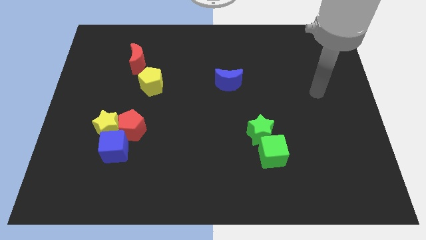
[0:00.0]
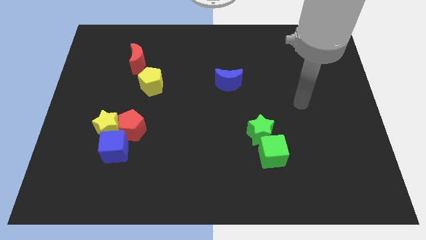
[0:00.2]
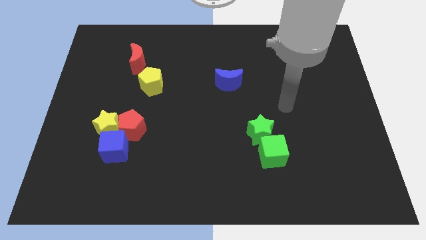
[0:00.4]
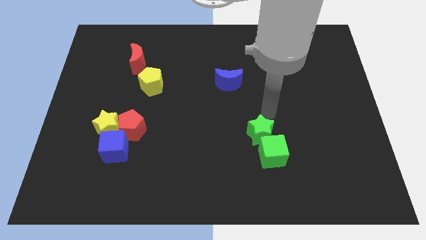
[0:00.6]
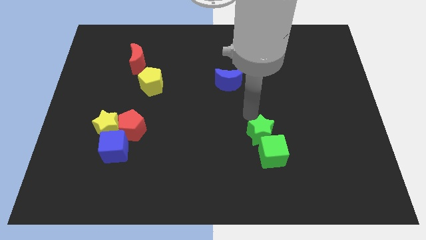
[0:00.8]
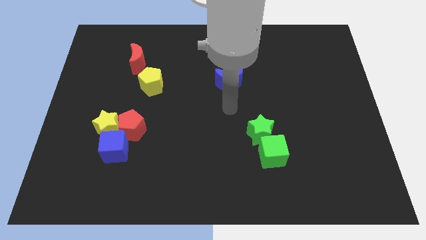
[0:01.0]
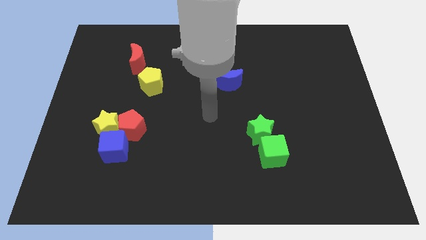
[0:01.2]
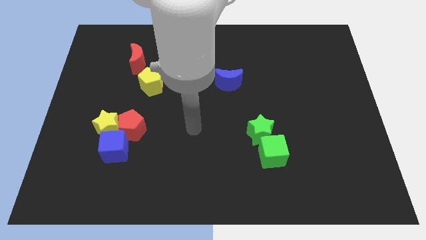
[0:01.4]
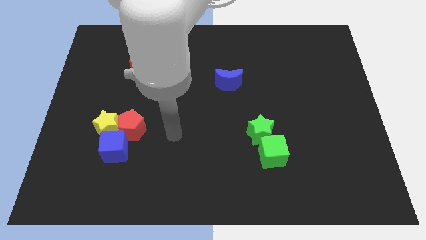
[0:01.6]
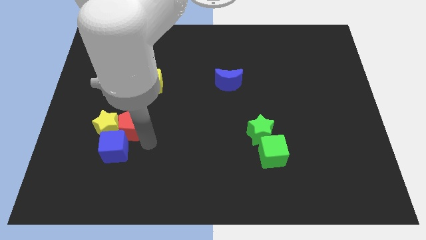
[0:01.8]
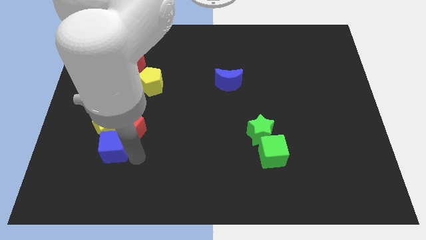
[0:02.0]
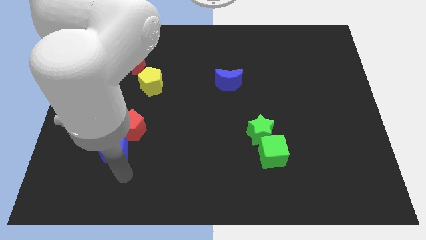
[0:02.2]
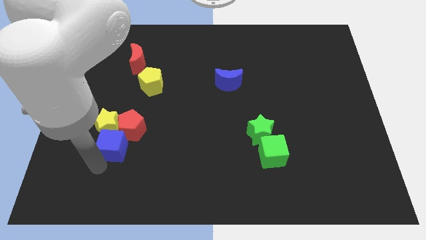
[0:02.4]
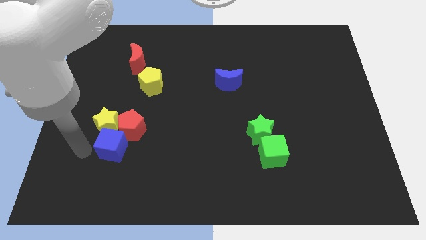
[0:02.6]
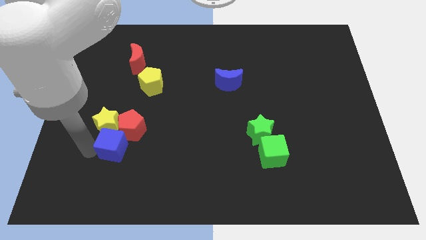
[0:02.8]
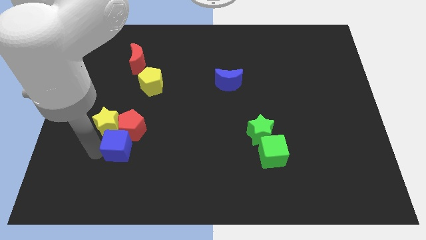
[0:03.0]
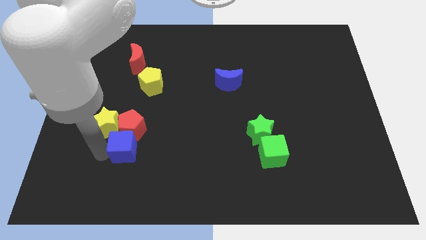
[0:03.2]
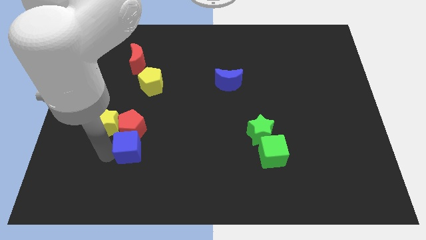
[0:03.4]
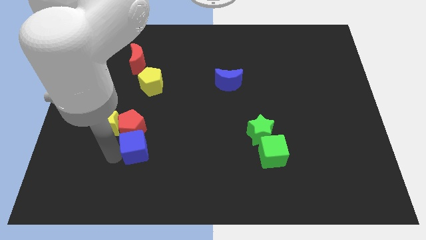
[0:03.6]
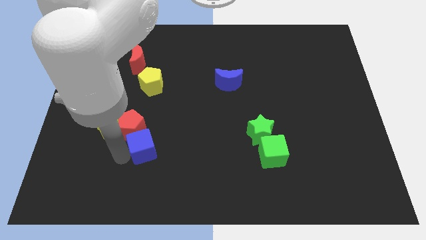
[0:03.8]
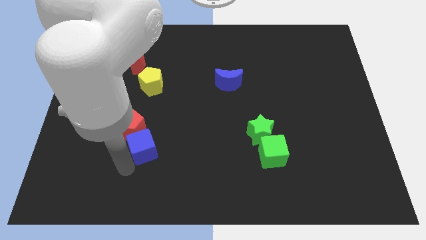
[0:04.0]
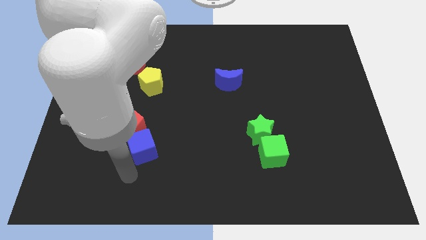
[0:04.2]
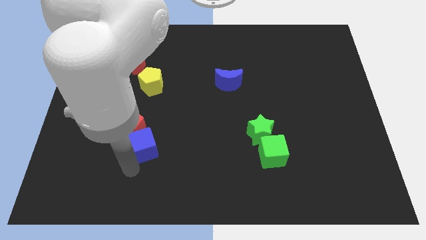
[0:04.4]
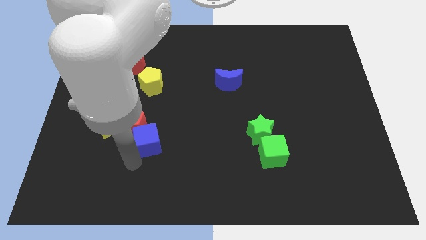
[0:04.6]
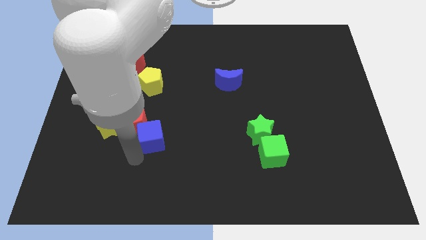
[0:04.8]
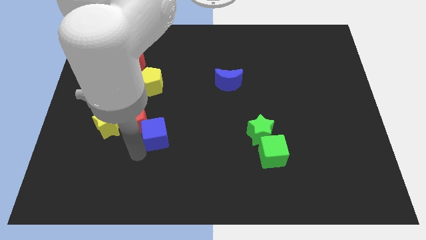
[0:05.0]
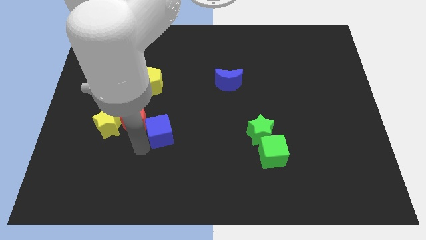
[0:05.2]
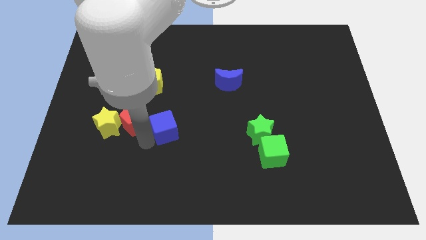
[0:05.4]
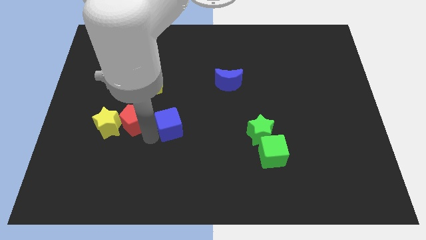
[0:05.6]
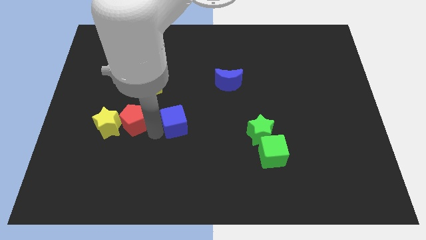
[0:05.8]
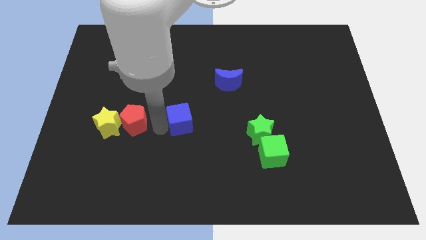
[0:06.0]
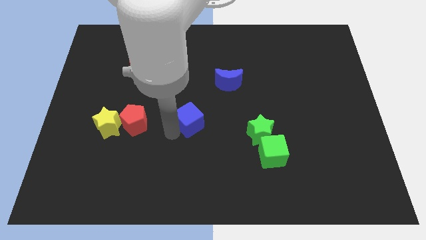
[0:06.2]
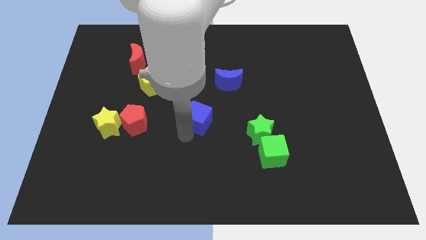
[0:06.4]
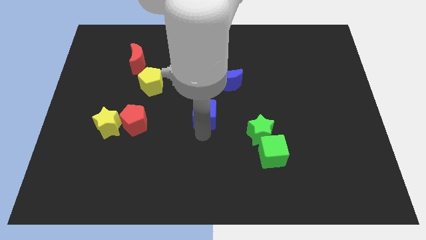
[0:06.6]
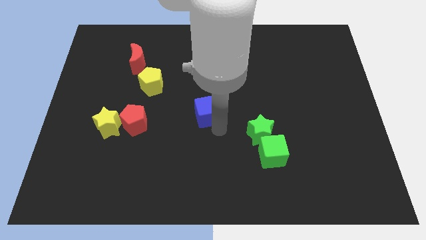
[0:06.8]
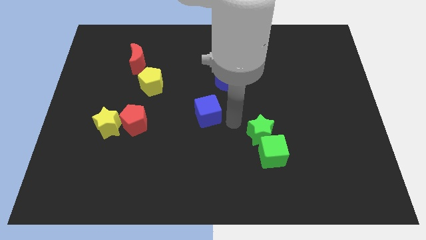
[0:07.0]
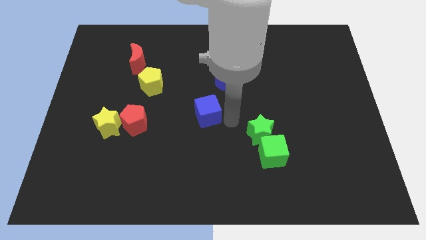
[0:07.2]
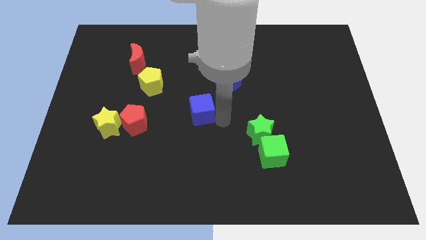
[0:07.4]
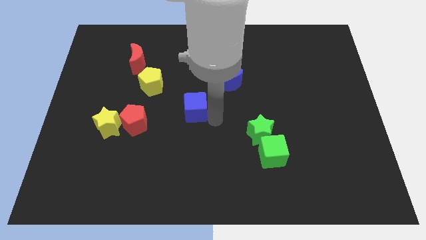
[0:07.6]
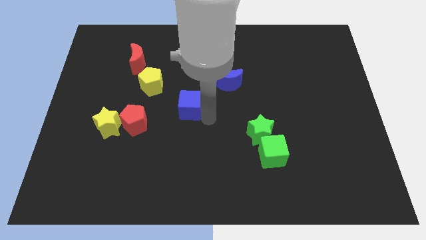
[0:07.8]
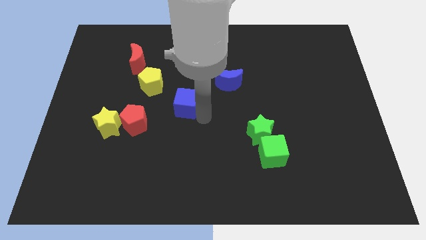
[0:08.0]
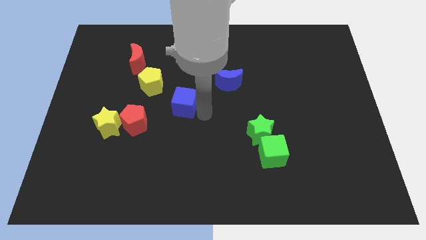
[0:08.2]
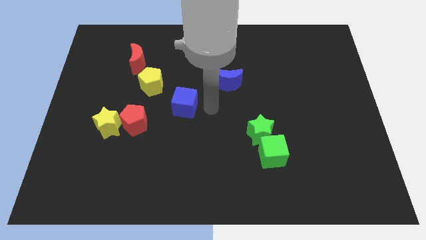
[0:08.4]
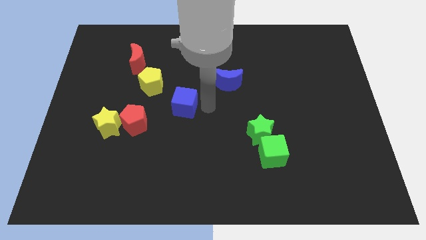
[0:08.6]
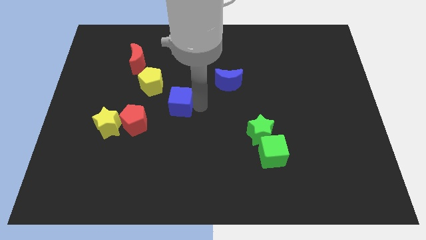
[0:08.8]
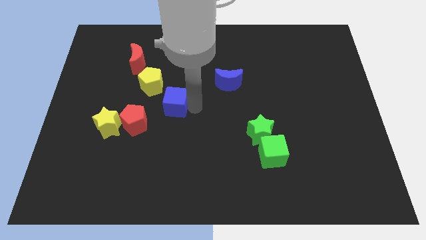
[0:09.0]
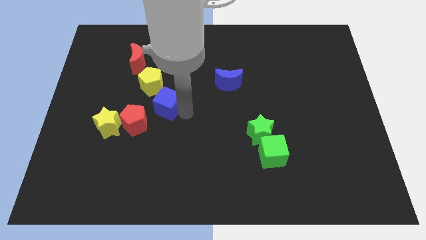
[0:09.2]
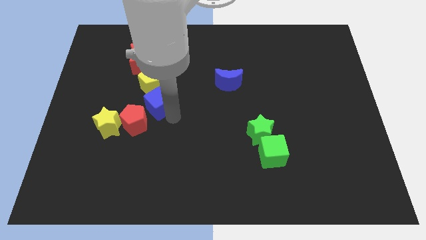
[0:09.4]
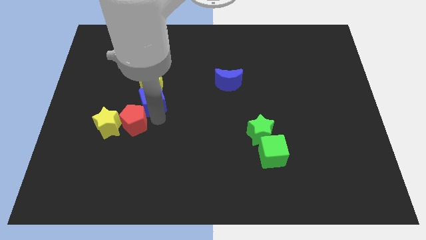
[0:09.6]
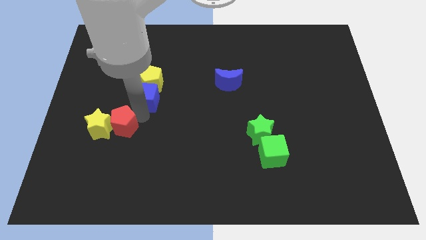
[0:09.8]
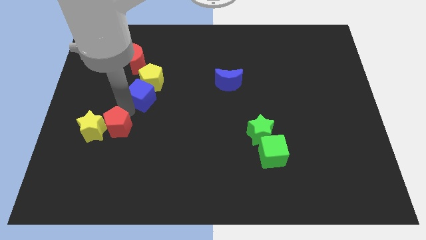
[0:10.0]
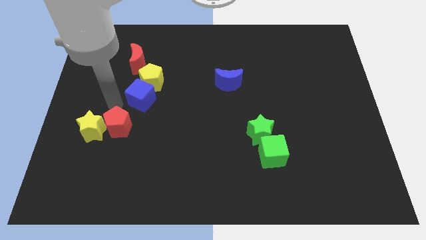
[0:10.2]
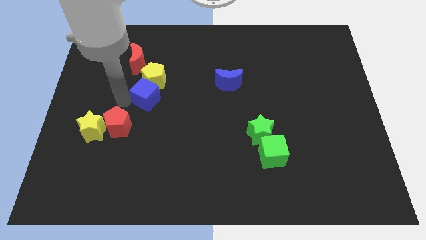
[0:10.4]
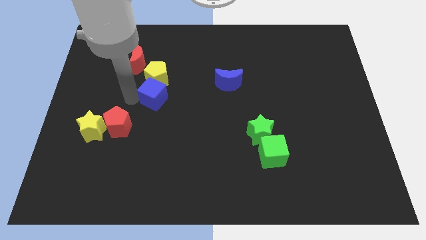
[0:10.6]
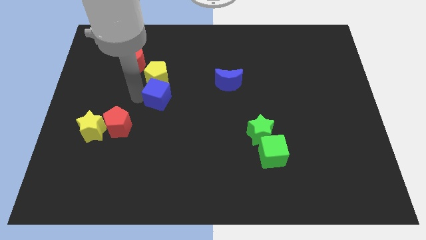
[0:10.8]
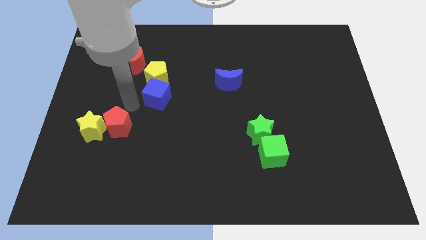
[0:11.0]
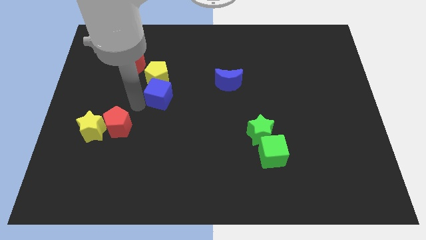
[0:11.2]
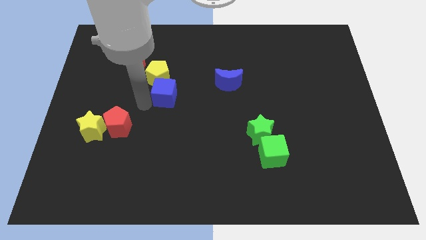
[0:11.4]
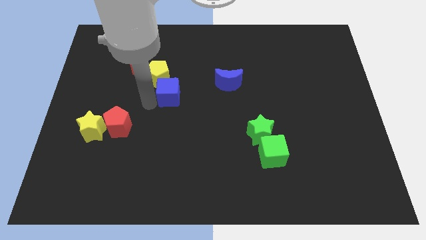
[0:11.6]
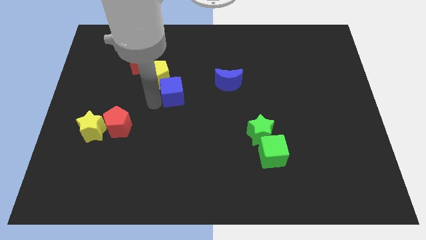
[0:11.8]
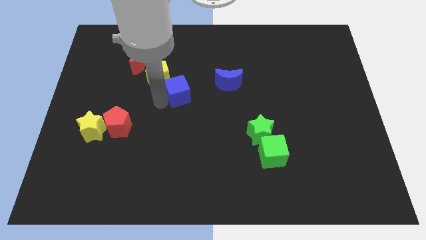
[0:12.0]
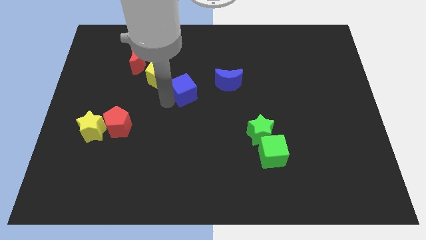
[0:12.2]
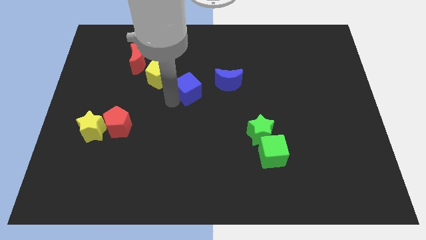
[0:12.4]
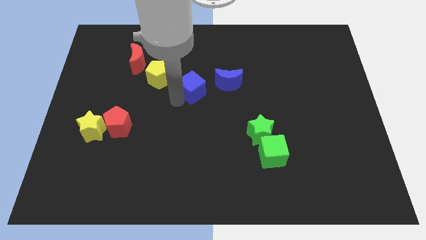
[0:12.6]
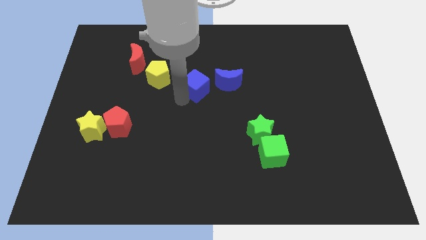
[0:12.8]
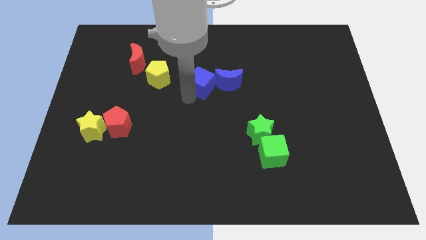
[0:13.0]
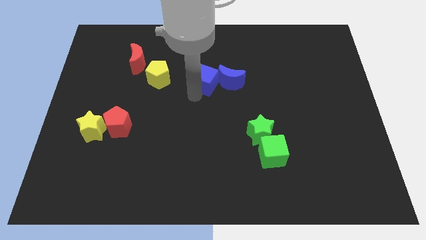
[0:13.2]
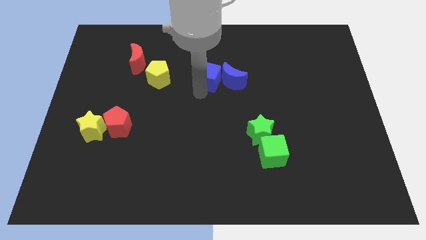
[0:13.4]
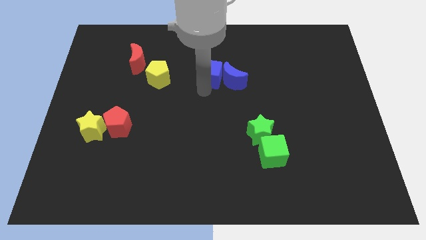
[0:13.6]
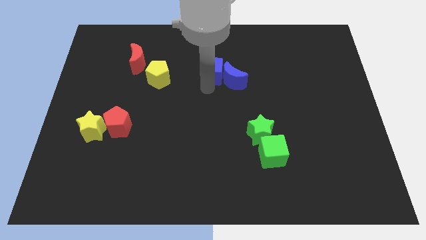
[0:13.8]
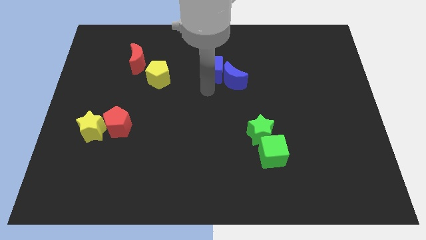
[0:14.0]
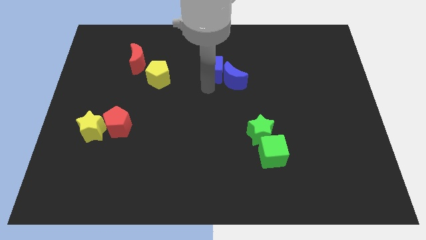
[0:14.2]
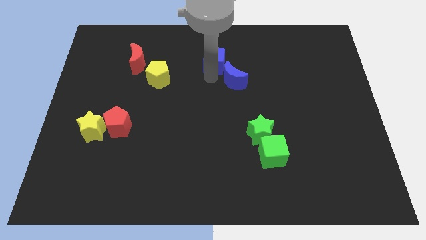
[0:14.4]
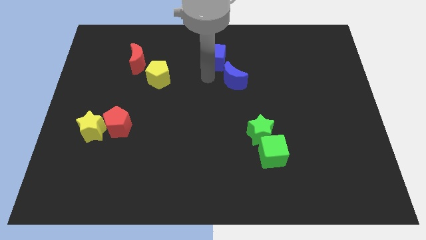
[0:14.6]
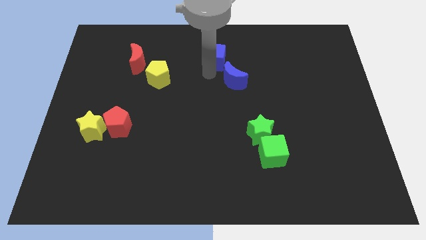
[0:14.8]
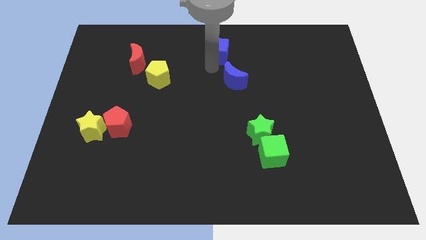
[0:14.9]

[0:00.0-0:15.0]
slide the blue cube to the top
